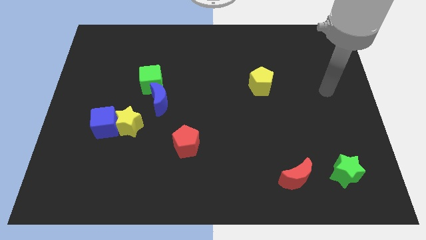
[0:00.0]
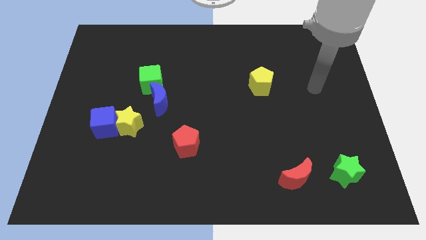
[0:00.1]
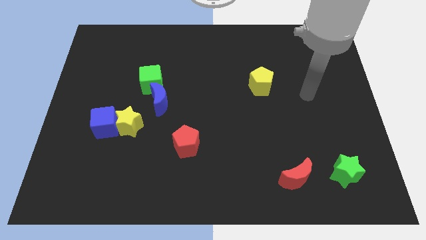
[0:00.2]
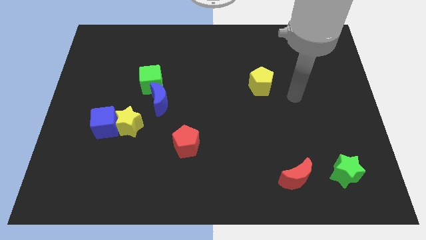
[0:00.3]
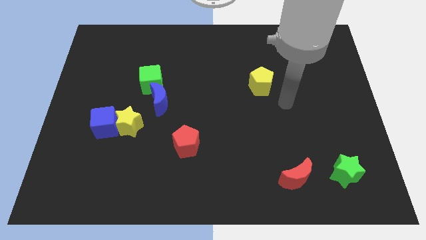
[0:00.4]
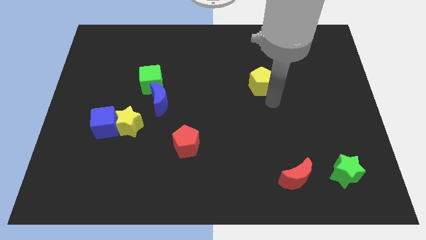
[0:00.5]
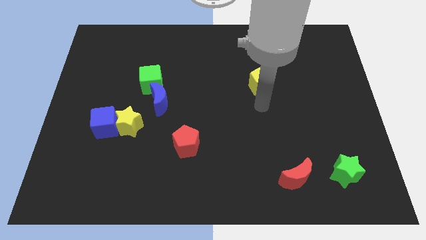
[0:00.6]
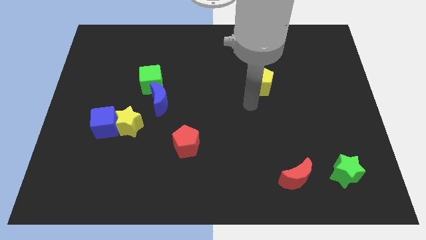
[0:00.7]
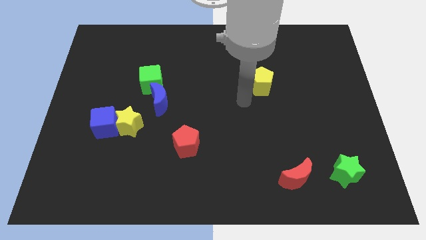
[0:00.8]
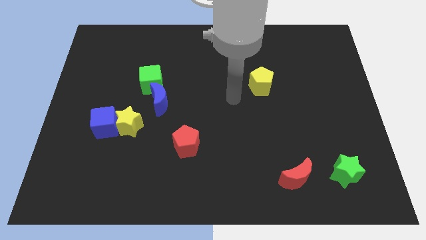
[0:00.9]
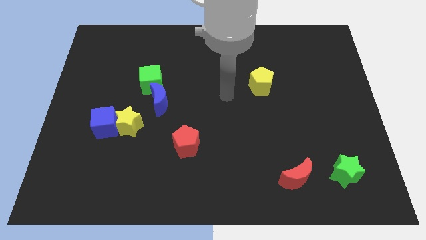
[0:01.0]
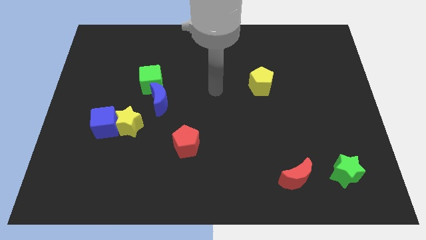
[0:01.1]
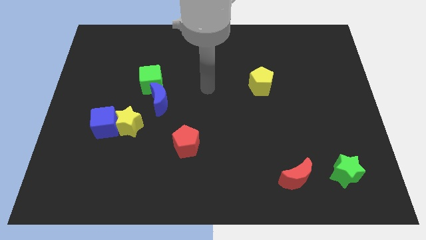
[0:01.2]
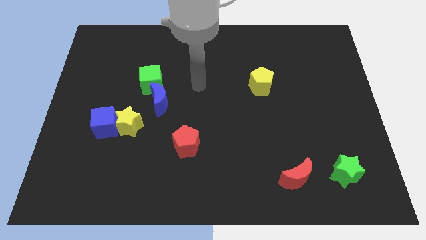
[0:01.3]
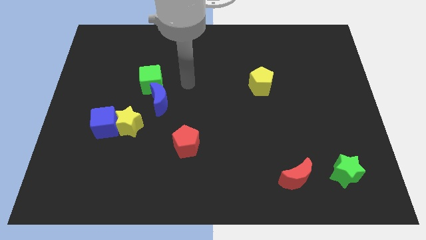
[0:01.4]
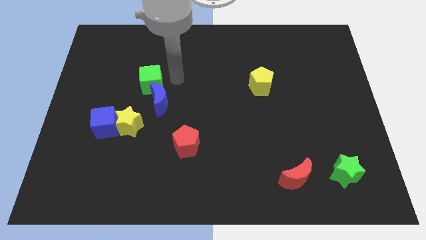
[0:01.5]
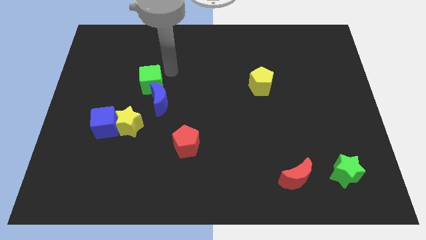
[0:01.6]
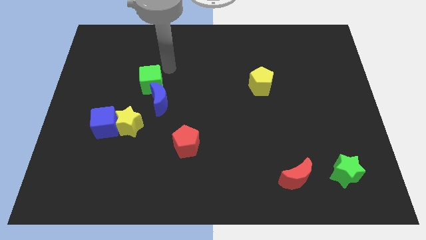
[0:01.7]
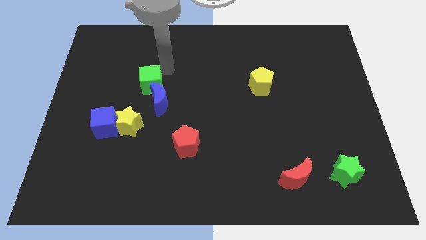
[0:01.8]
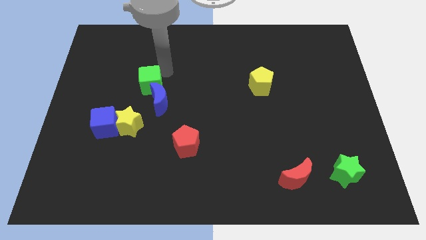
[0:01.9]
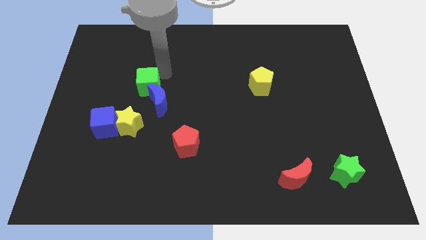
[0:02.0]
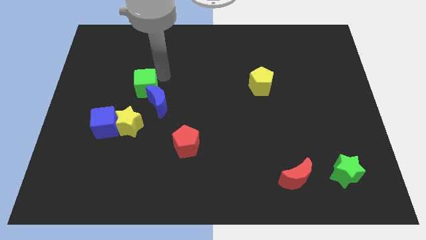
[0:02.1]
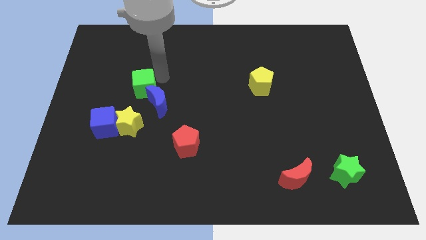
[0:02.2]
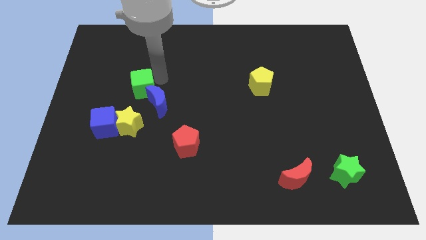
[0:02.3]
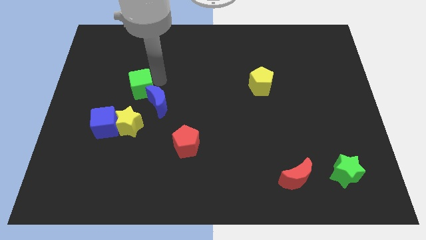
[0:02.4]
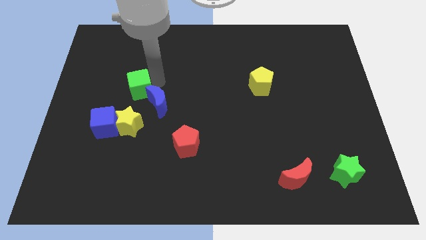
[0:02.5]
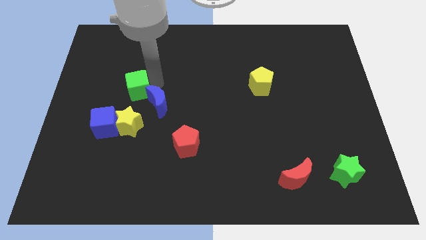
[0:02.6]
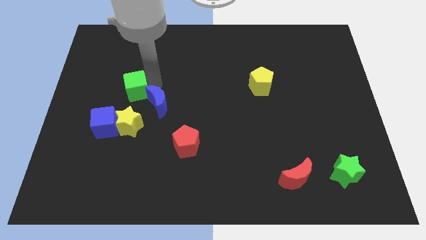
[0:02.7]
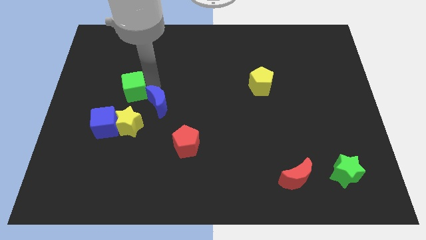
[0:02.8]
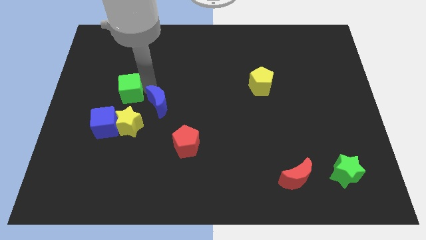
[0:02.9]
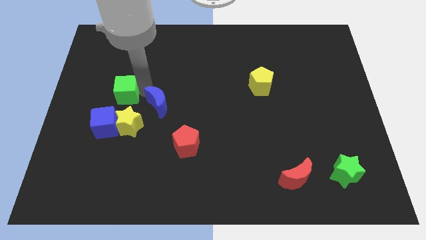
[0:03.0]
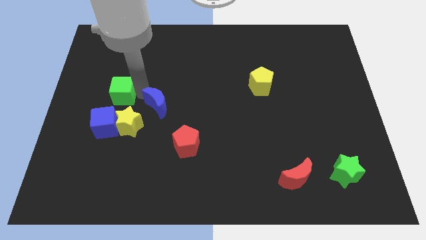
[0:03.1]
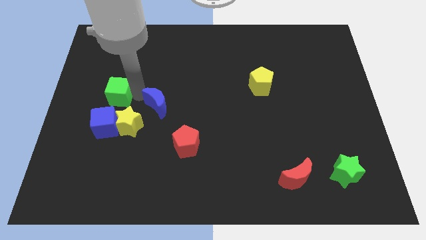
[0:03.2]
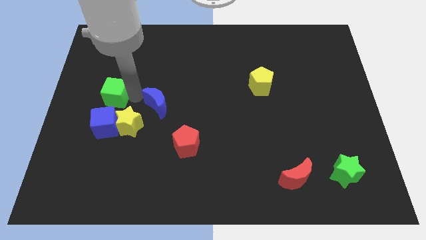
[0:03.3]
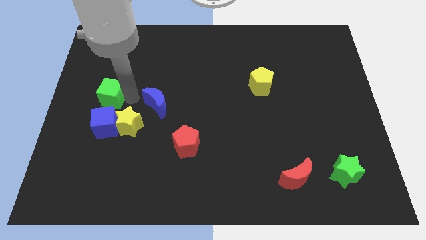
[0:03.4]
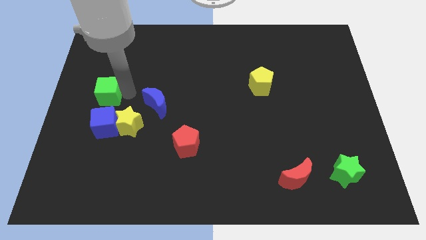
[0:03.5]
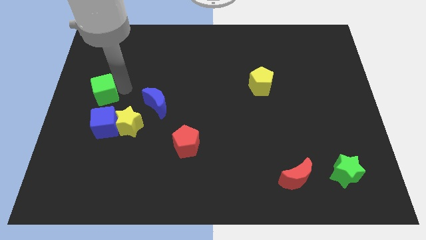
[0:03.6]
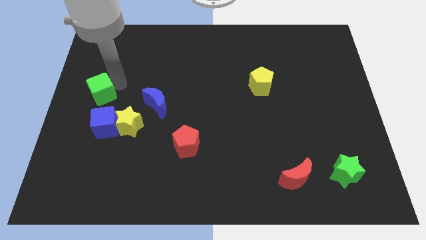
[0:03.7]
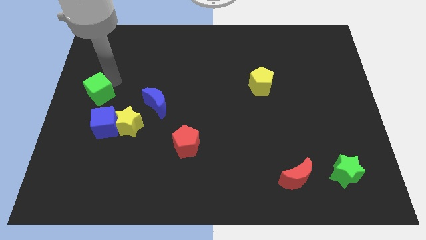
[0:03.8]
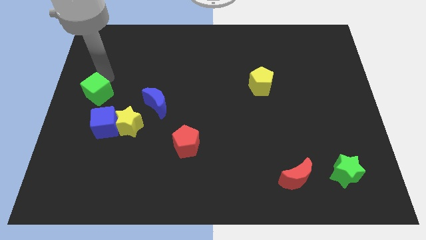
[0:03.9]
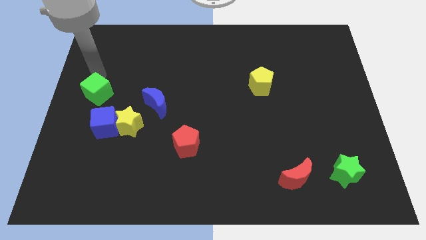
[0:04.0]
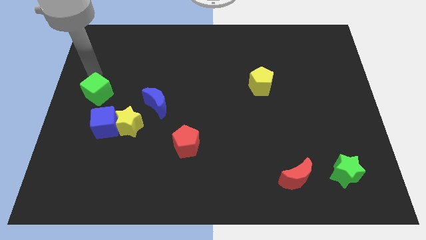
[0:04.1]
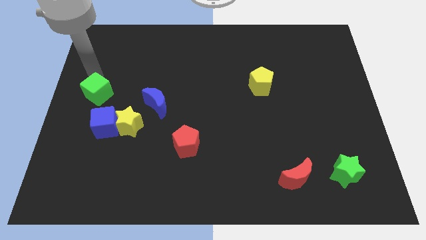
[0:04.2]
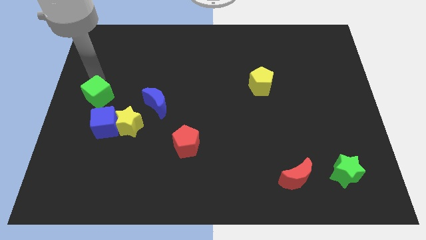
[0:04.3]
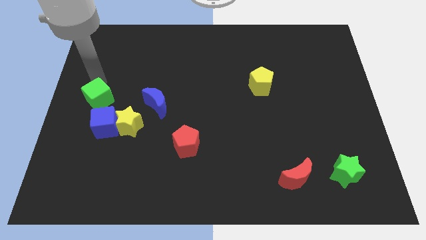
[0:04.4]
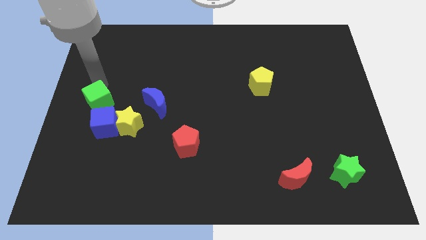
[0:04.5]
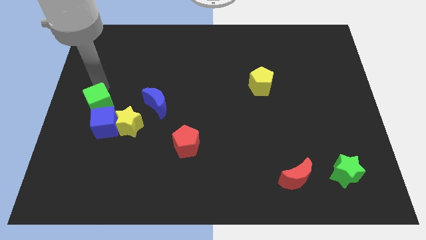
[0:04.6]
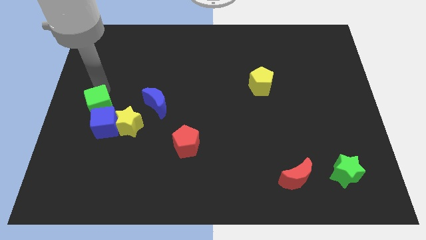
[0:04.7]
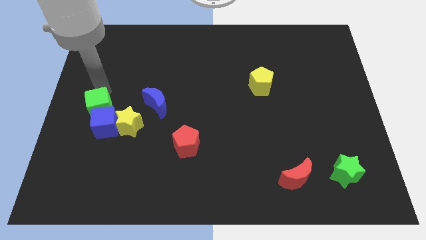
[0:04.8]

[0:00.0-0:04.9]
move the green cube next to the blue cube

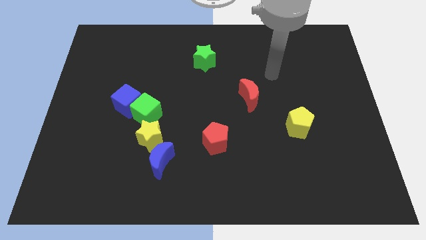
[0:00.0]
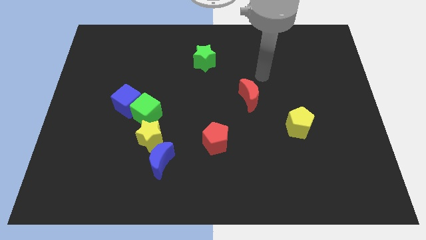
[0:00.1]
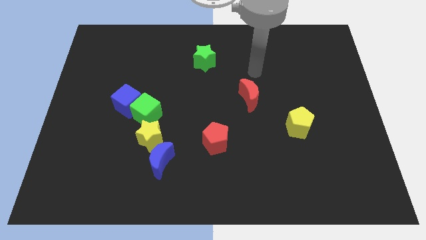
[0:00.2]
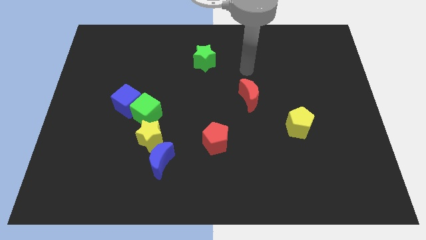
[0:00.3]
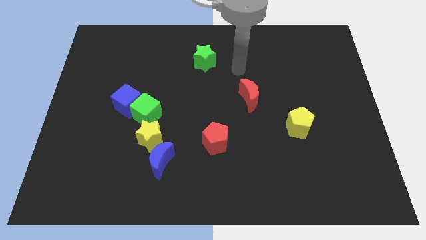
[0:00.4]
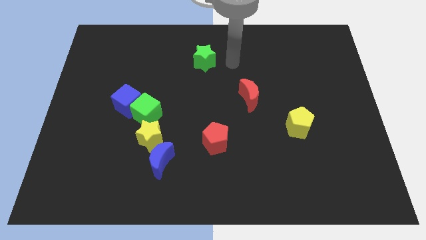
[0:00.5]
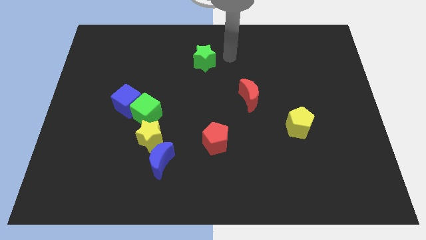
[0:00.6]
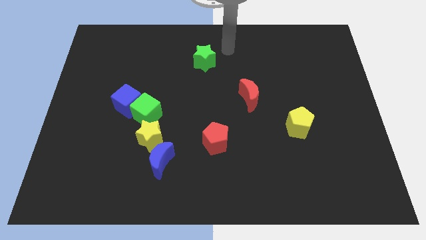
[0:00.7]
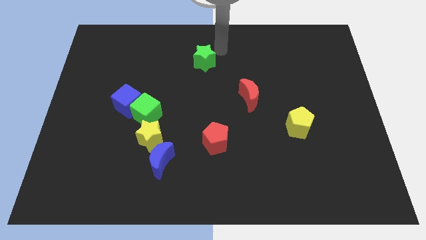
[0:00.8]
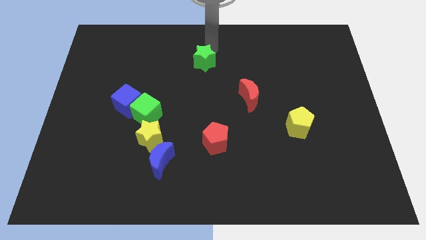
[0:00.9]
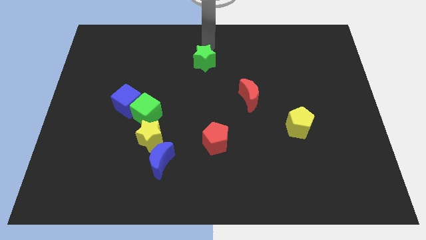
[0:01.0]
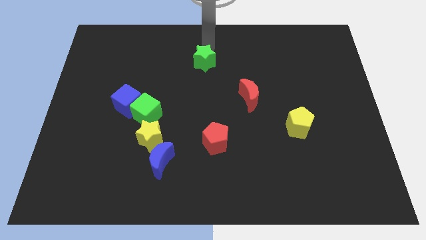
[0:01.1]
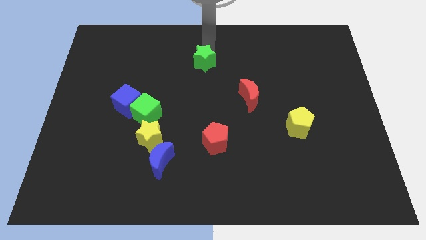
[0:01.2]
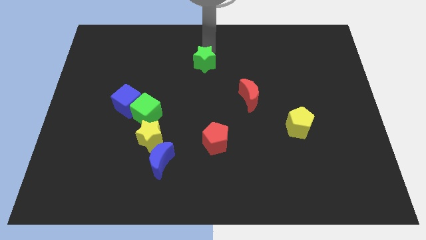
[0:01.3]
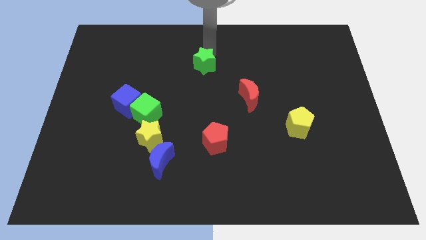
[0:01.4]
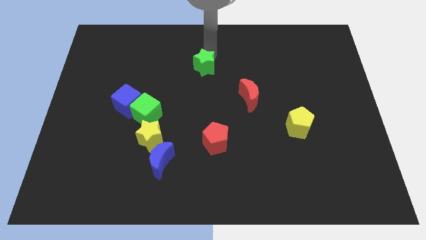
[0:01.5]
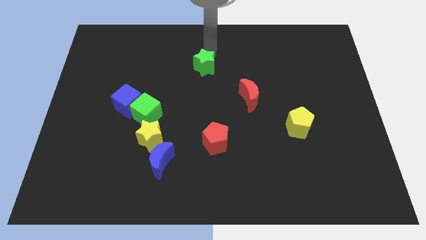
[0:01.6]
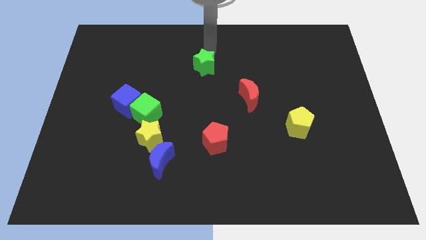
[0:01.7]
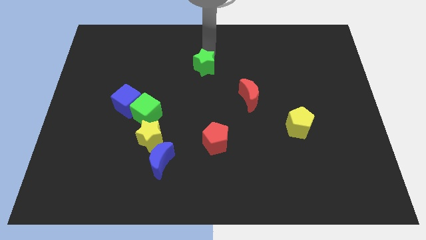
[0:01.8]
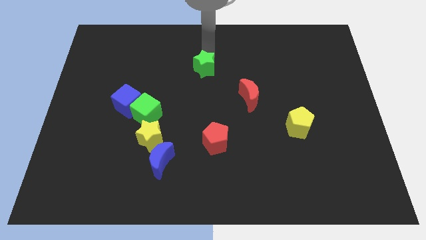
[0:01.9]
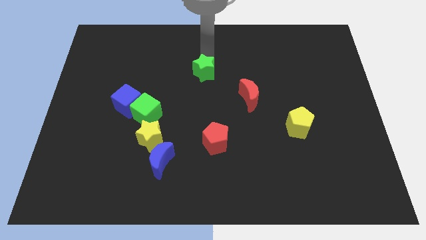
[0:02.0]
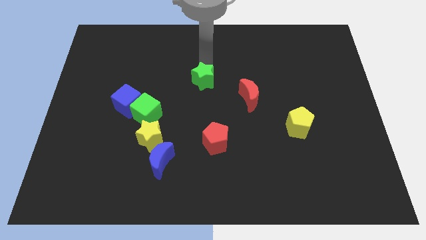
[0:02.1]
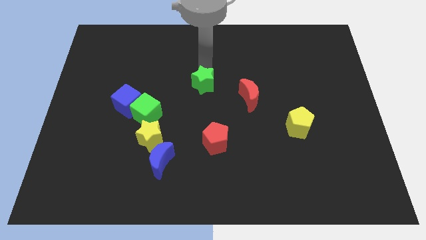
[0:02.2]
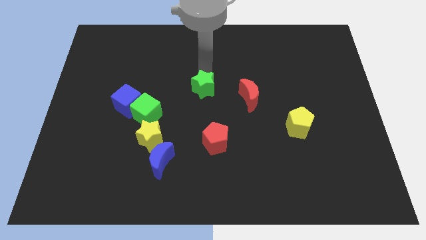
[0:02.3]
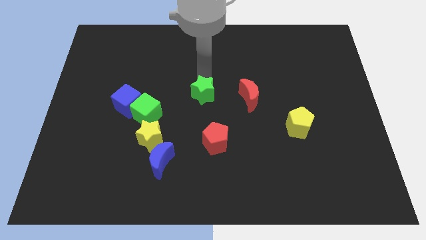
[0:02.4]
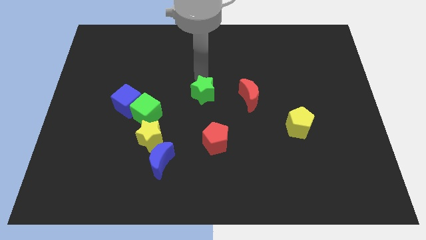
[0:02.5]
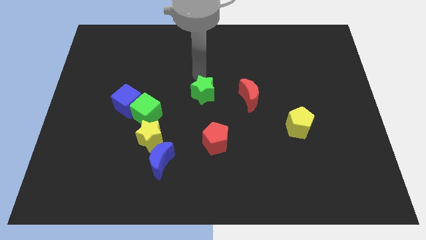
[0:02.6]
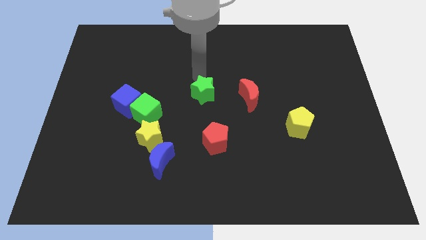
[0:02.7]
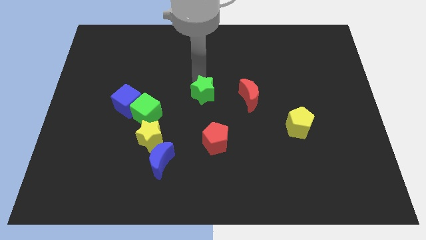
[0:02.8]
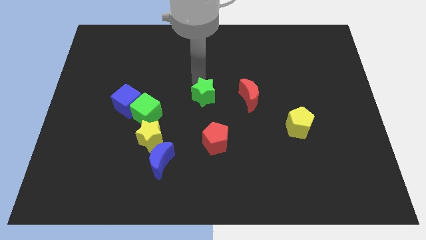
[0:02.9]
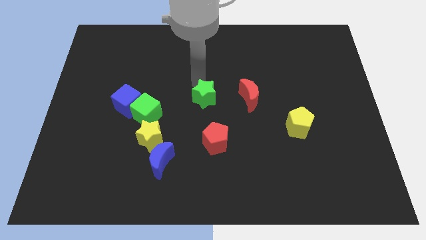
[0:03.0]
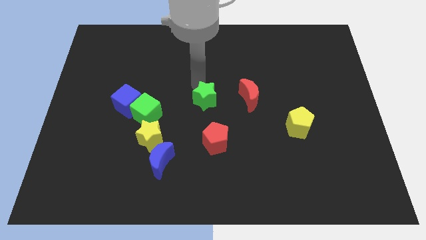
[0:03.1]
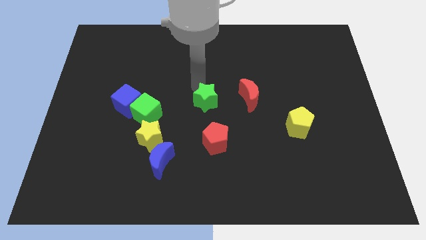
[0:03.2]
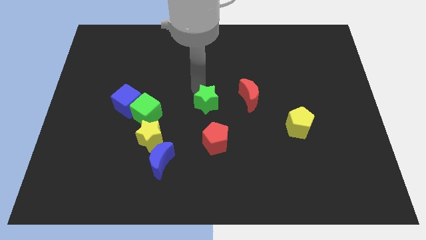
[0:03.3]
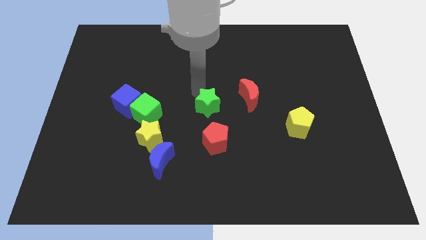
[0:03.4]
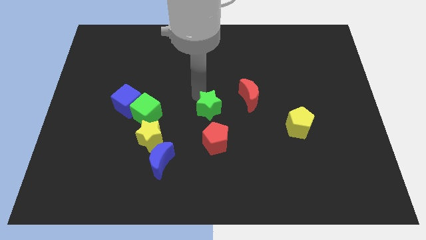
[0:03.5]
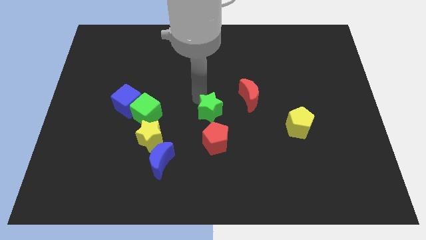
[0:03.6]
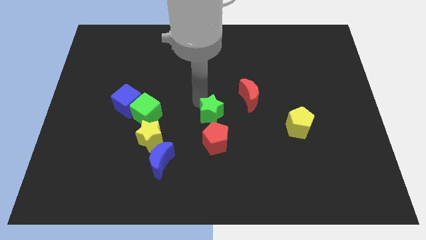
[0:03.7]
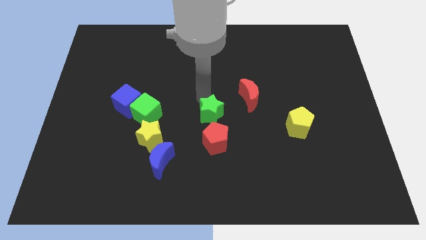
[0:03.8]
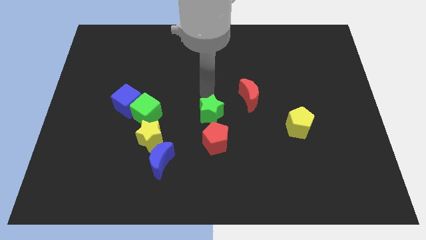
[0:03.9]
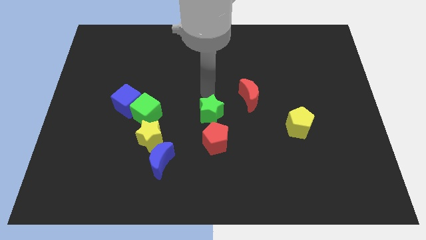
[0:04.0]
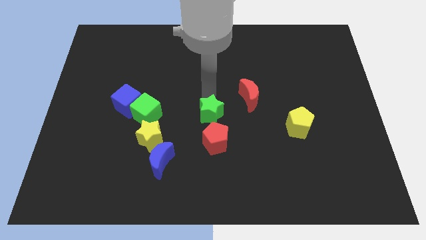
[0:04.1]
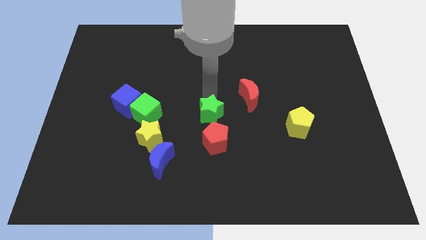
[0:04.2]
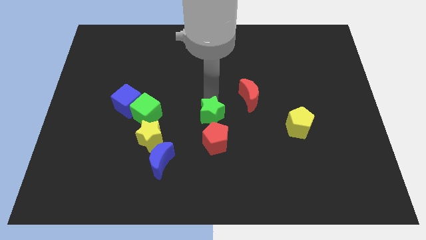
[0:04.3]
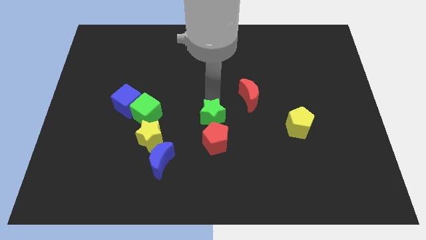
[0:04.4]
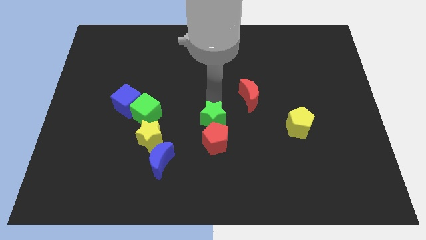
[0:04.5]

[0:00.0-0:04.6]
move the green star close to the red pentagon
